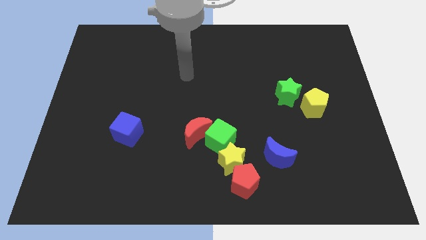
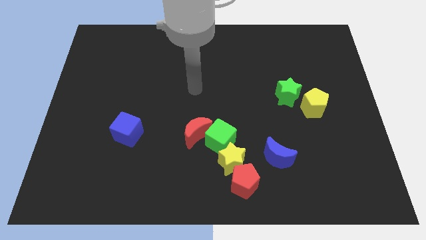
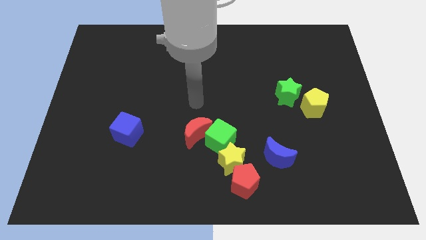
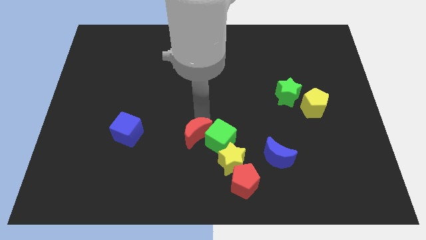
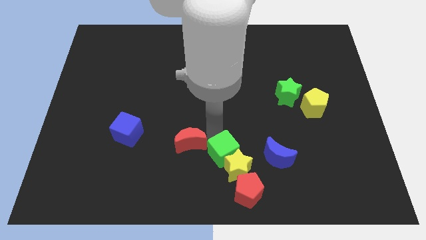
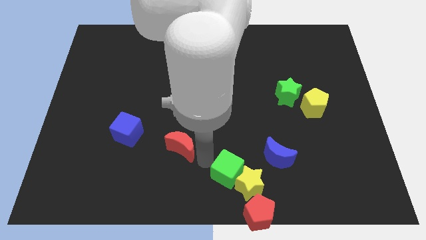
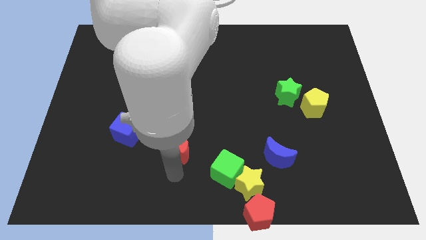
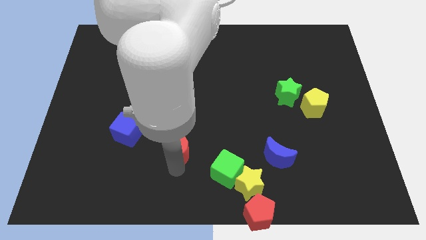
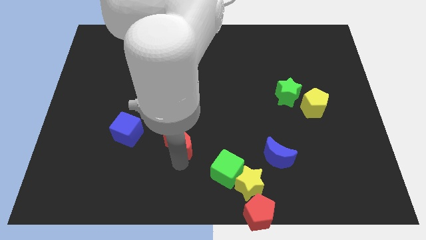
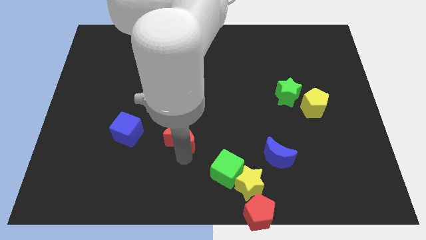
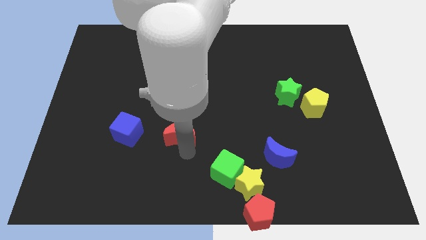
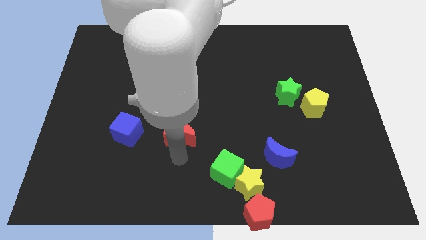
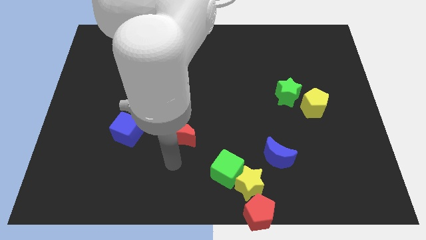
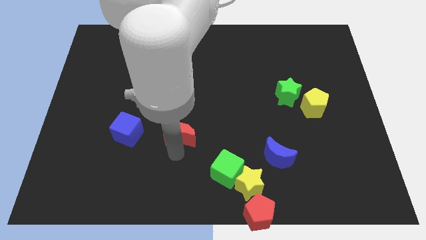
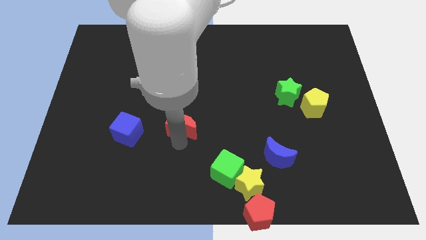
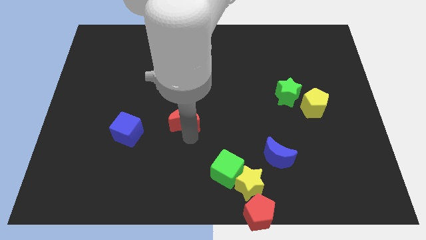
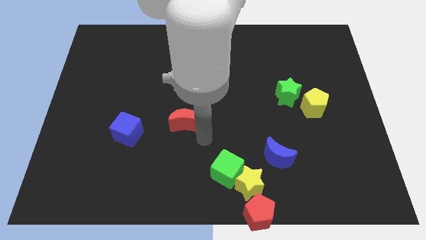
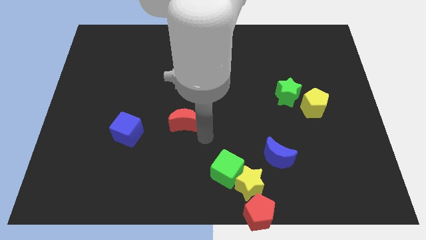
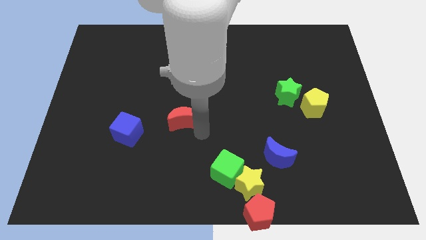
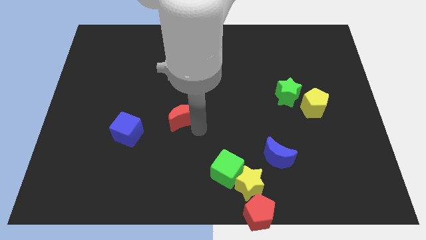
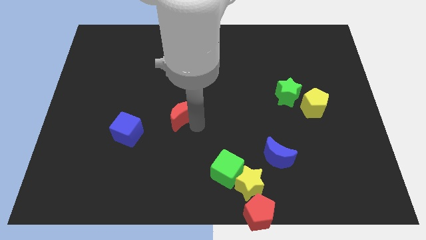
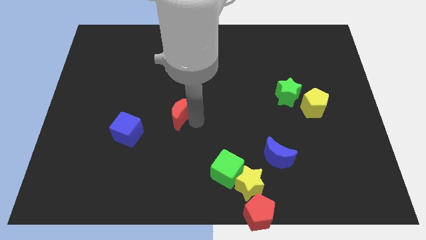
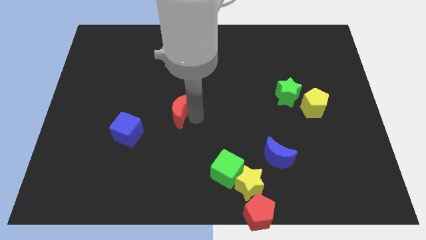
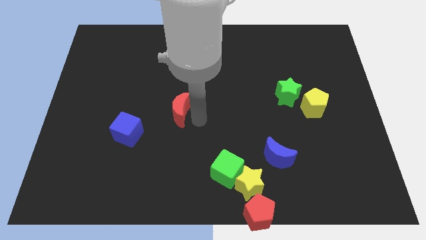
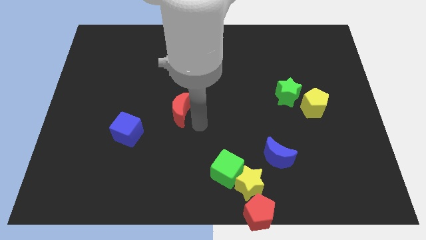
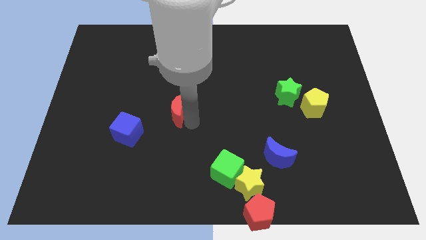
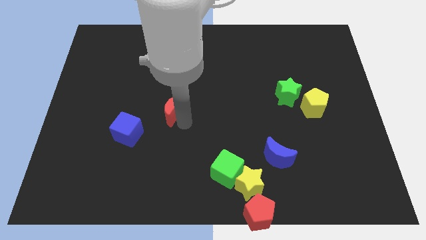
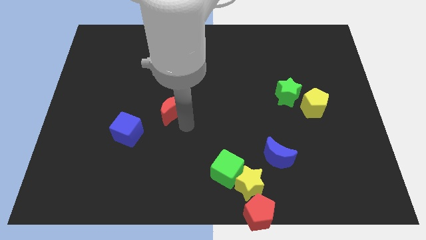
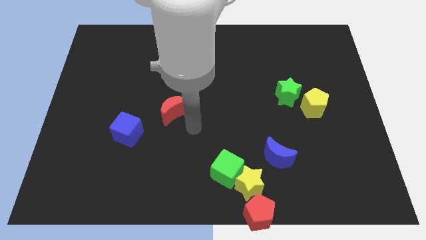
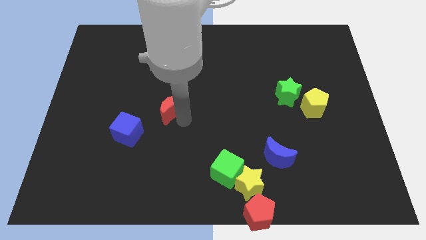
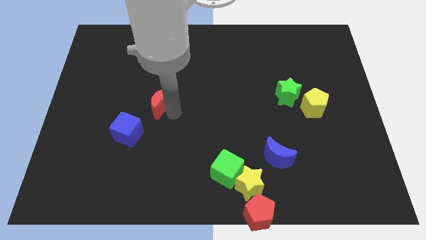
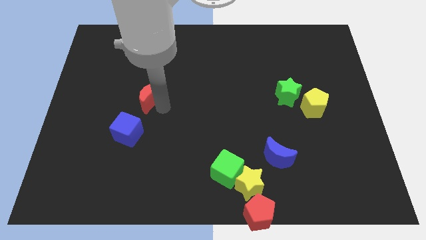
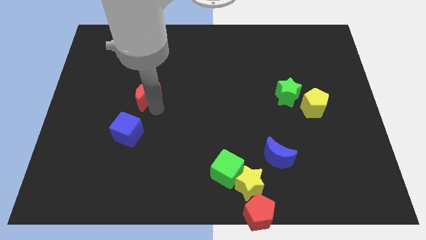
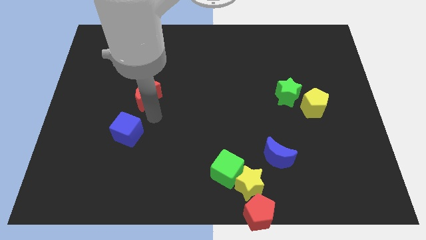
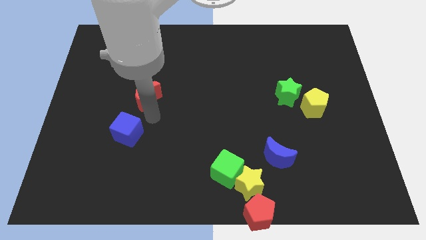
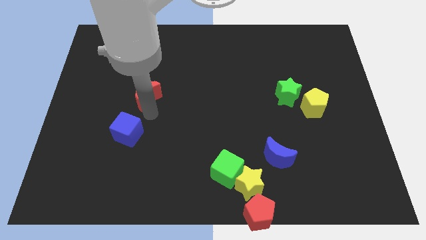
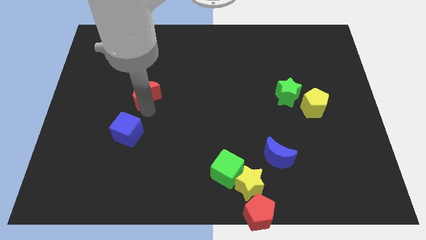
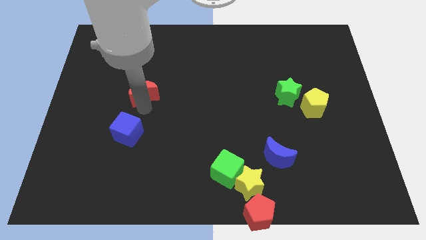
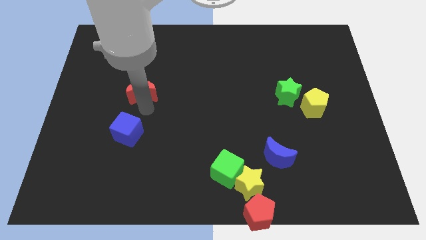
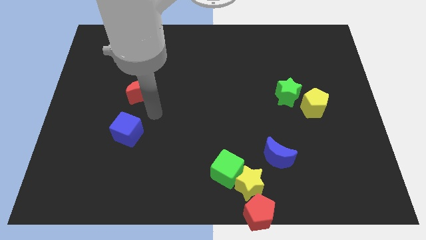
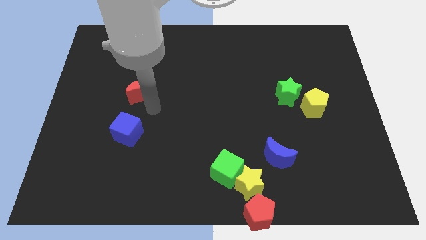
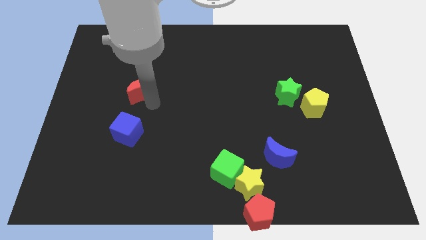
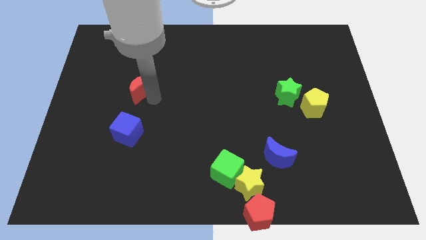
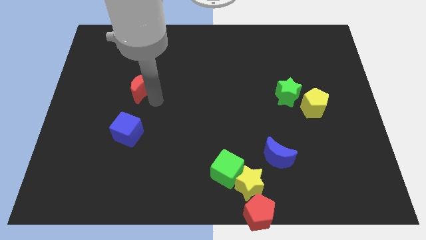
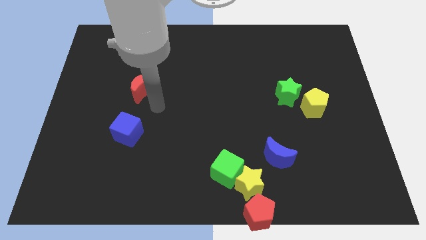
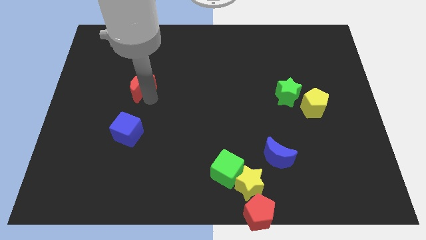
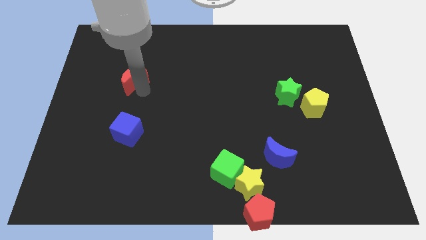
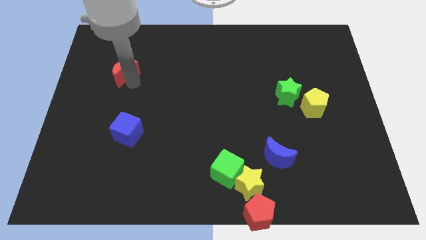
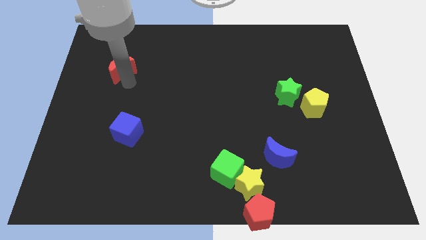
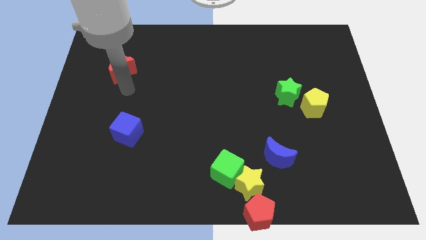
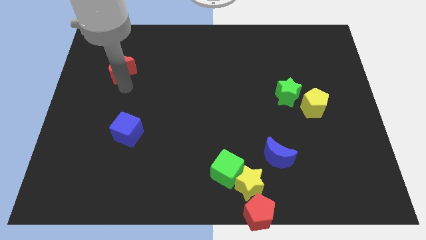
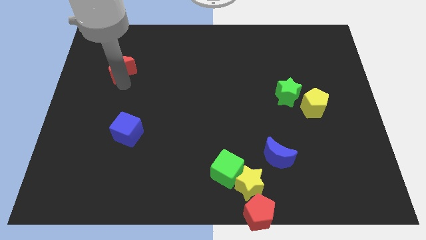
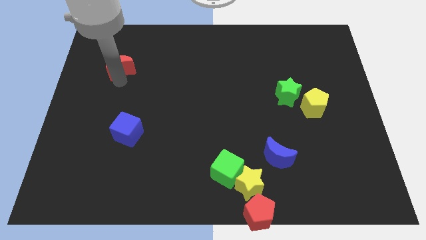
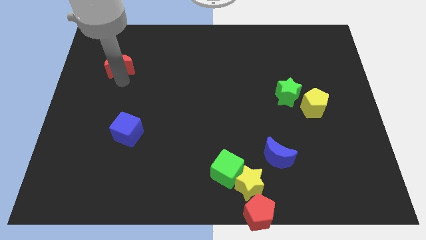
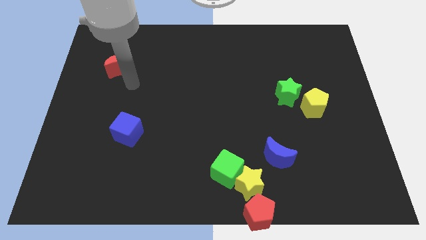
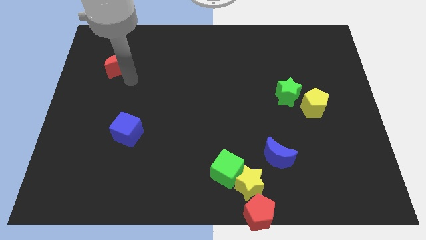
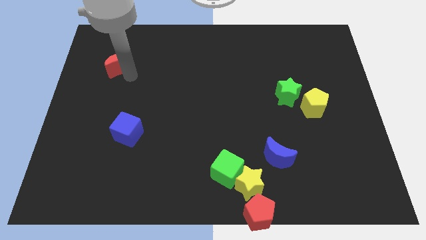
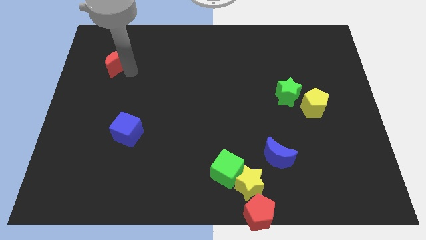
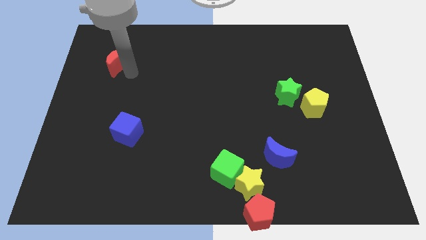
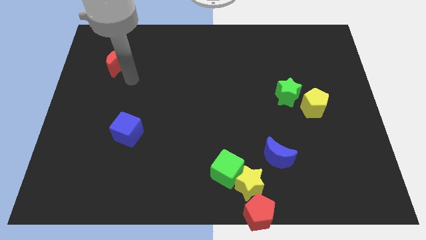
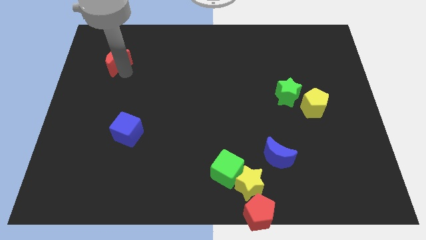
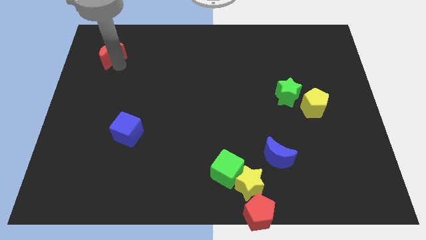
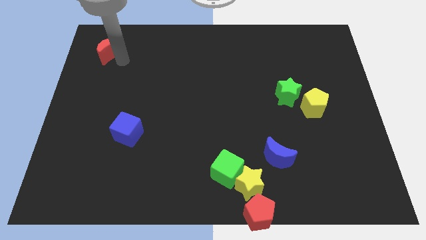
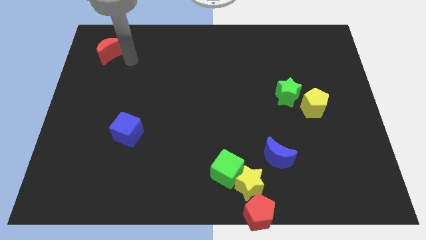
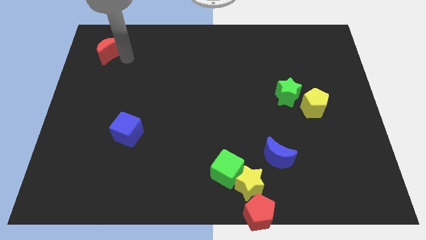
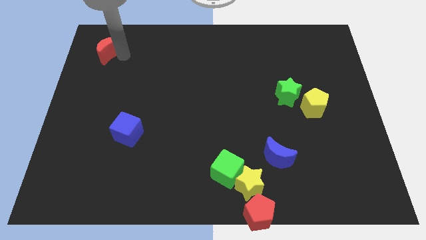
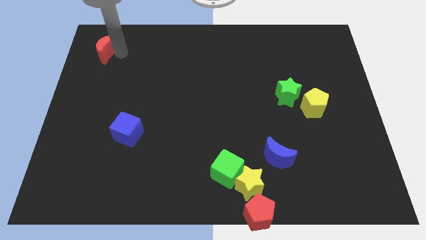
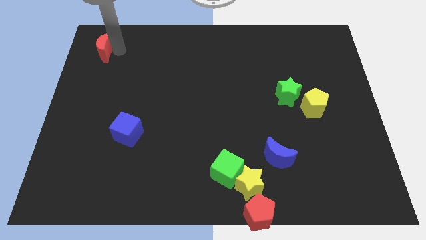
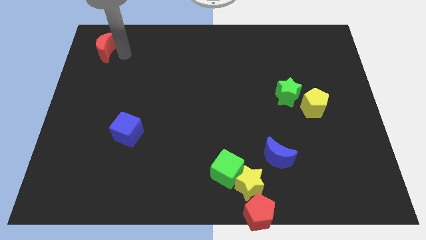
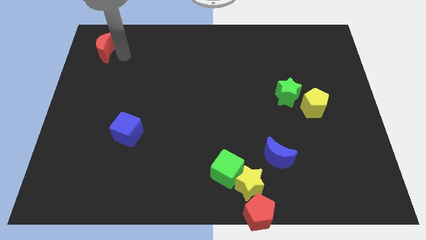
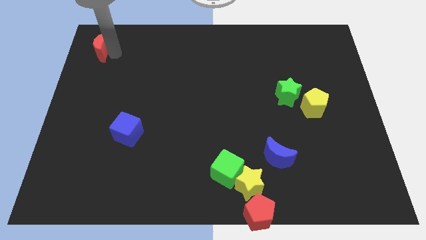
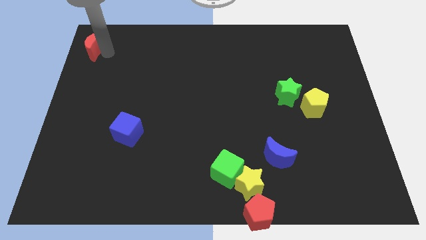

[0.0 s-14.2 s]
push the red moon to the top left of the board
